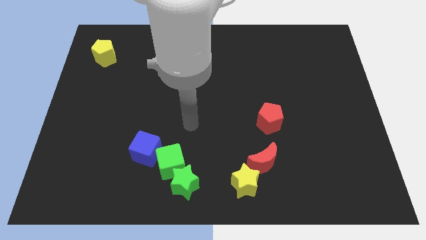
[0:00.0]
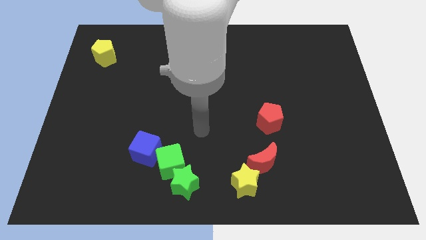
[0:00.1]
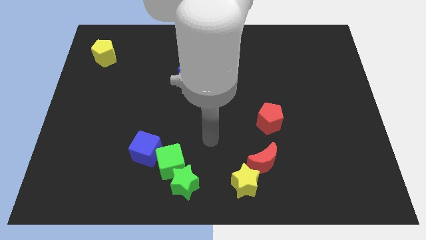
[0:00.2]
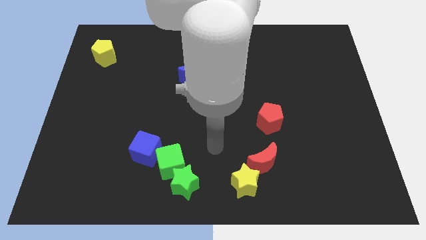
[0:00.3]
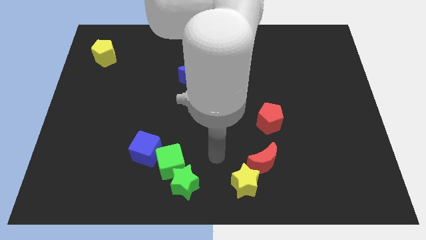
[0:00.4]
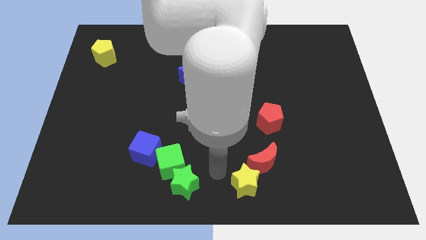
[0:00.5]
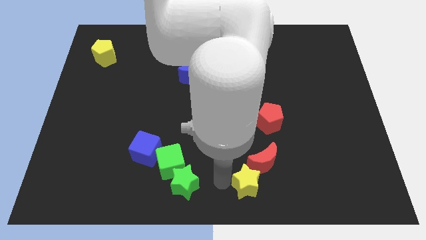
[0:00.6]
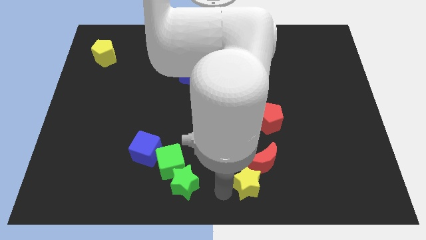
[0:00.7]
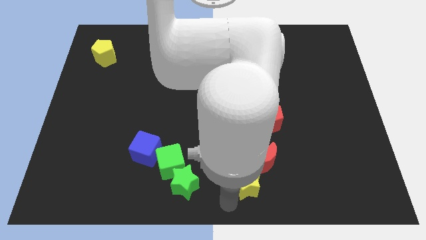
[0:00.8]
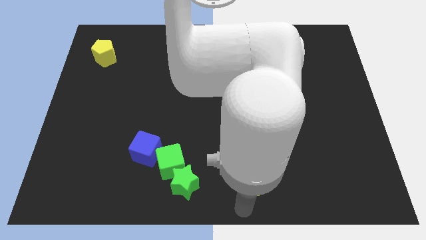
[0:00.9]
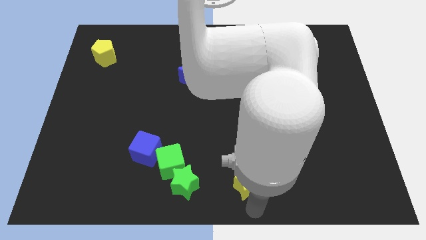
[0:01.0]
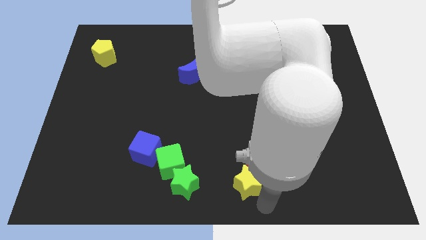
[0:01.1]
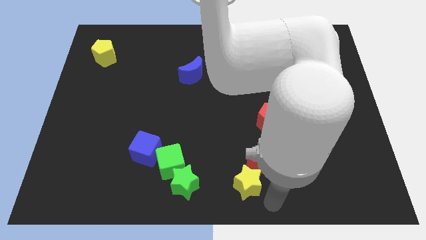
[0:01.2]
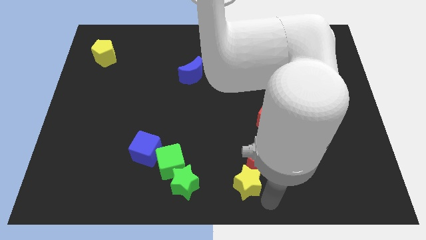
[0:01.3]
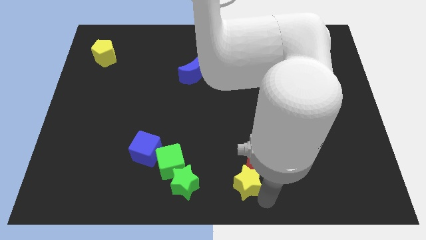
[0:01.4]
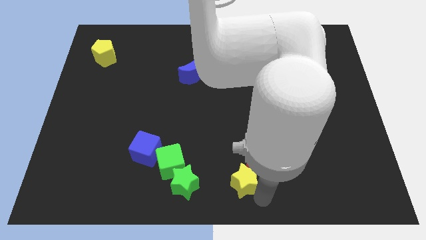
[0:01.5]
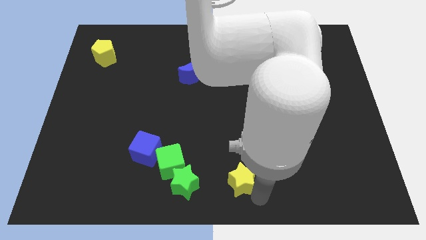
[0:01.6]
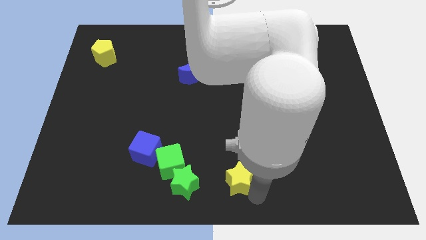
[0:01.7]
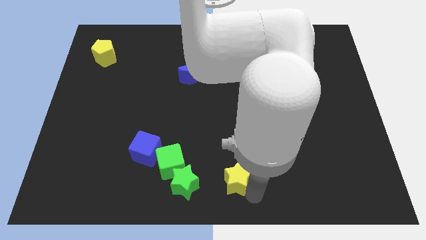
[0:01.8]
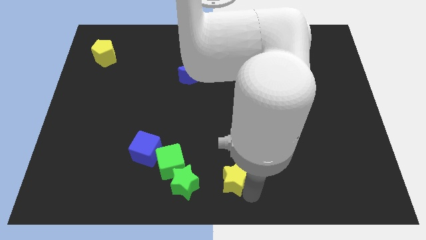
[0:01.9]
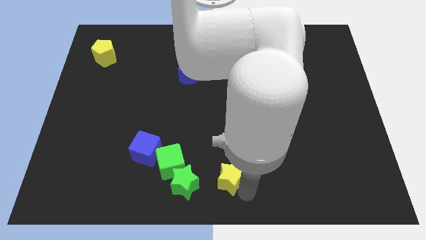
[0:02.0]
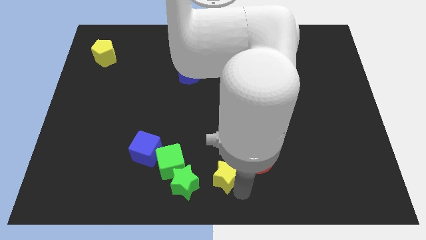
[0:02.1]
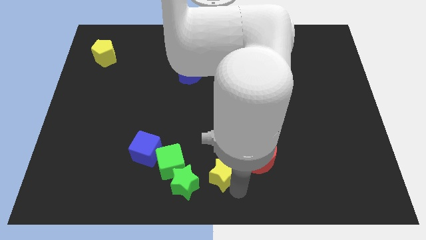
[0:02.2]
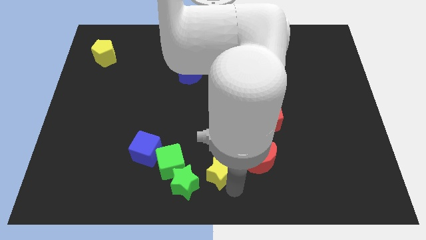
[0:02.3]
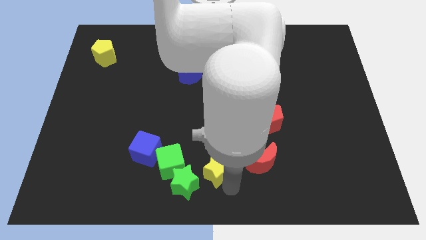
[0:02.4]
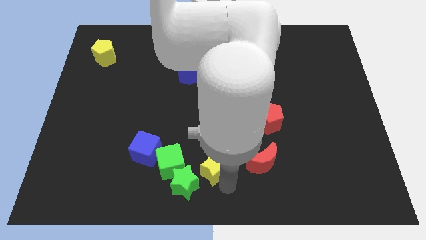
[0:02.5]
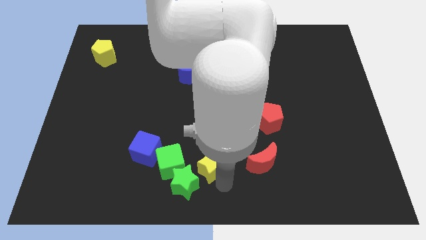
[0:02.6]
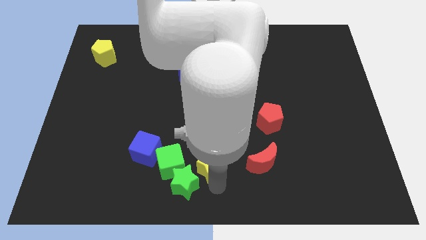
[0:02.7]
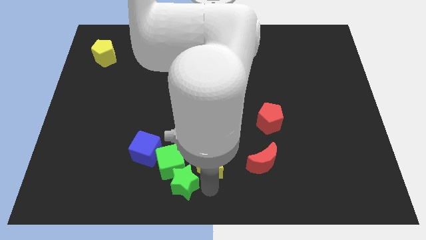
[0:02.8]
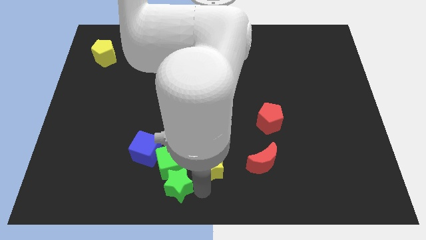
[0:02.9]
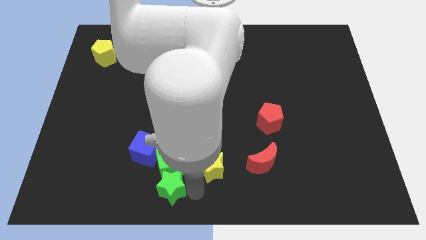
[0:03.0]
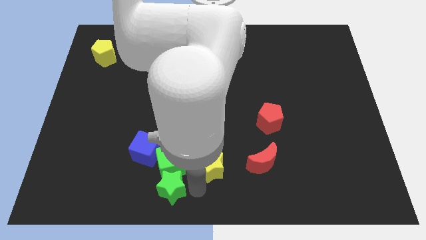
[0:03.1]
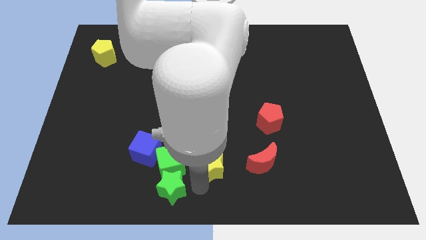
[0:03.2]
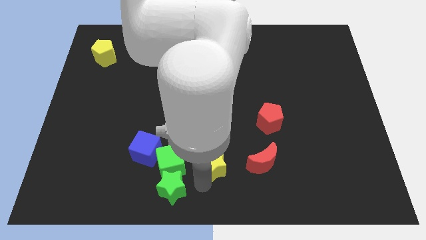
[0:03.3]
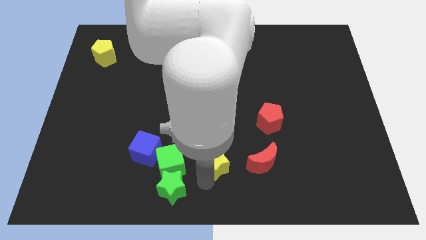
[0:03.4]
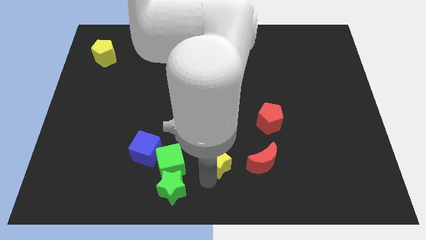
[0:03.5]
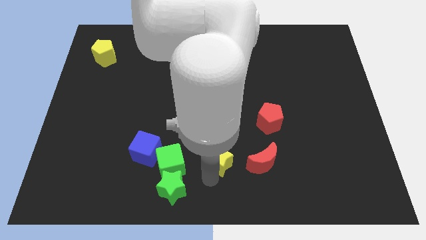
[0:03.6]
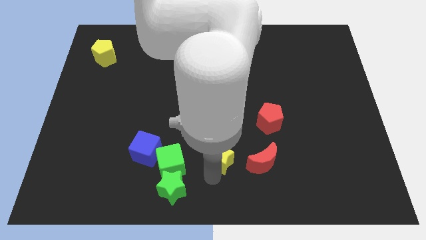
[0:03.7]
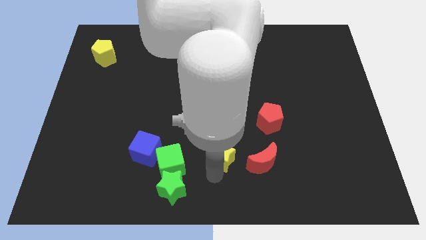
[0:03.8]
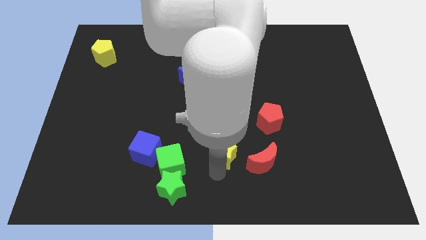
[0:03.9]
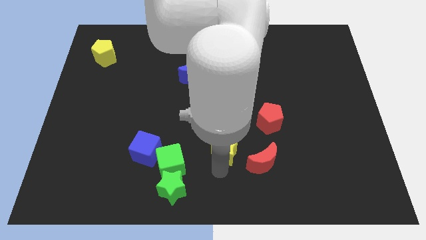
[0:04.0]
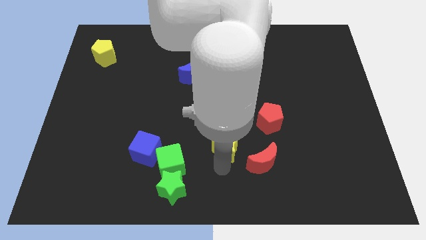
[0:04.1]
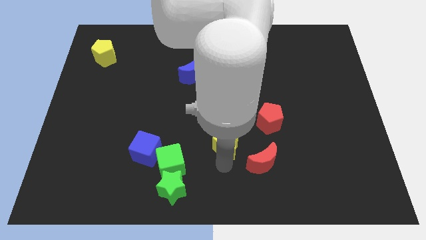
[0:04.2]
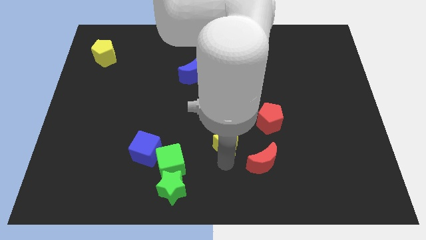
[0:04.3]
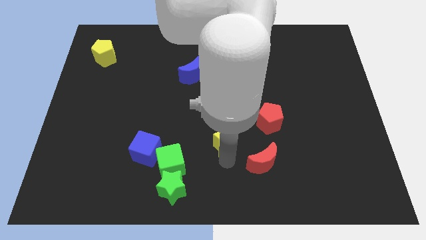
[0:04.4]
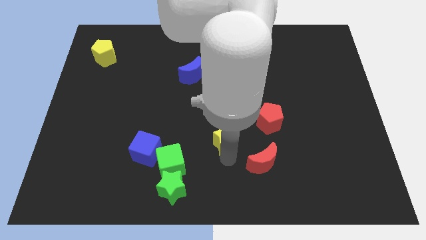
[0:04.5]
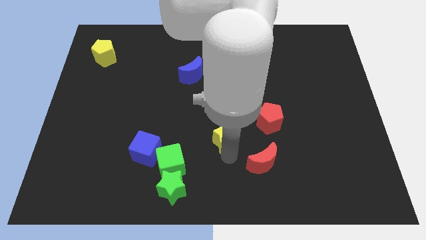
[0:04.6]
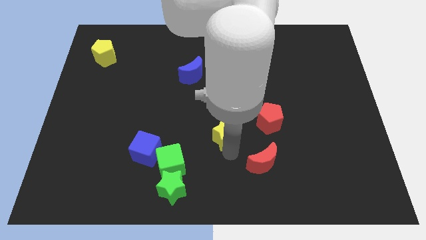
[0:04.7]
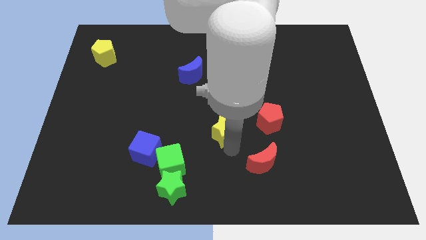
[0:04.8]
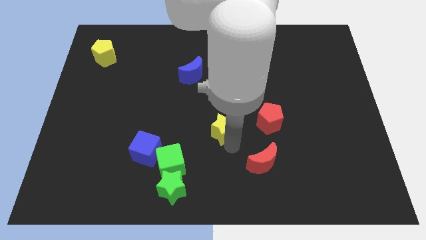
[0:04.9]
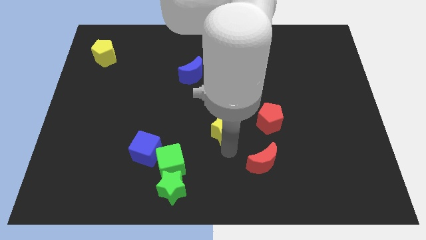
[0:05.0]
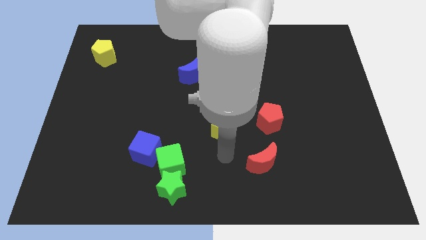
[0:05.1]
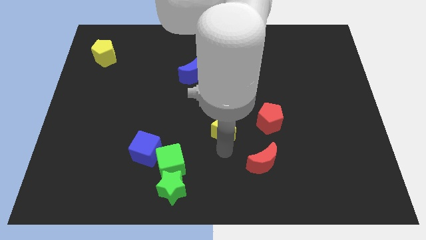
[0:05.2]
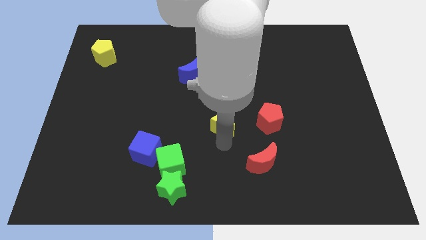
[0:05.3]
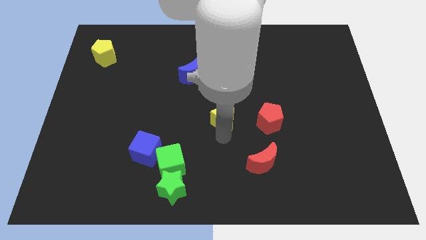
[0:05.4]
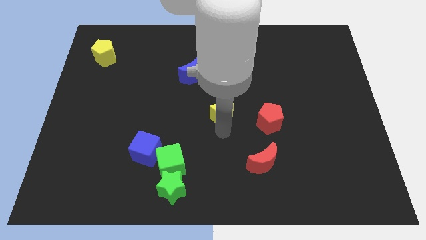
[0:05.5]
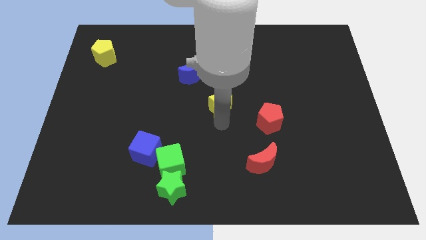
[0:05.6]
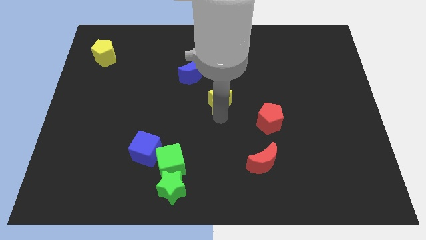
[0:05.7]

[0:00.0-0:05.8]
slide the yellow star upwards

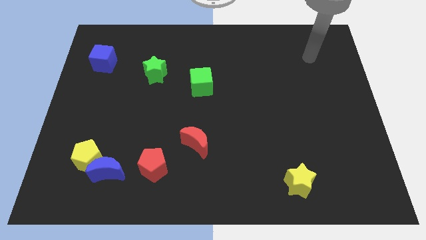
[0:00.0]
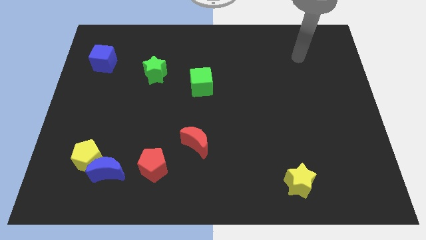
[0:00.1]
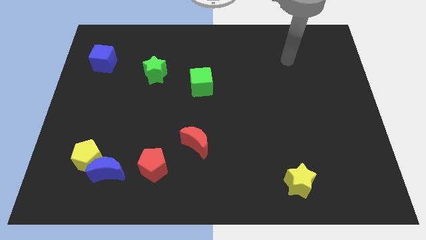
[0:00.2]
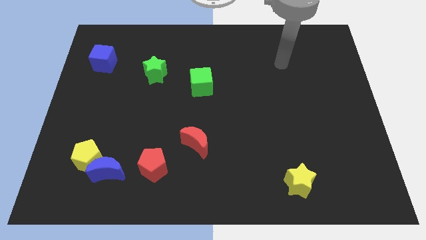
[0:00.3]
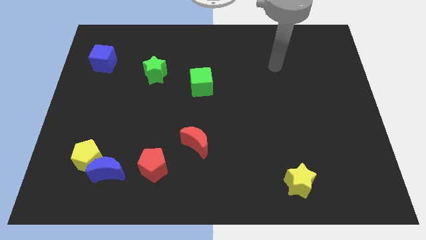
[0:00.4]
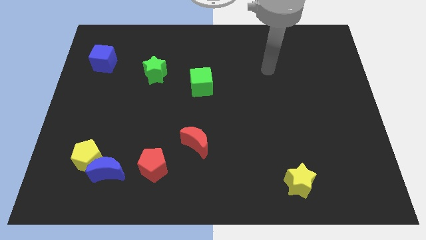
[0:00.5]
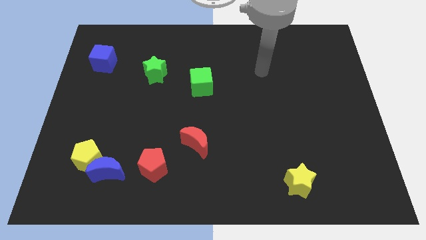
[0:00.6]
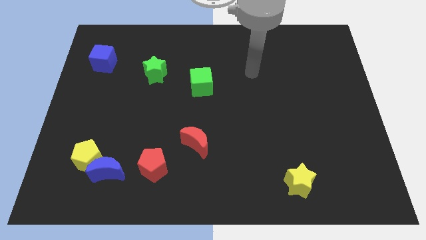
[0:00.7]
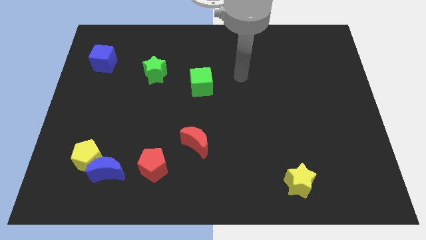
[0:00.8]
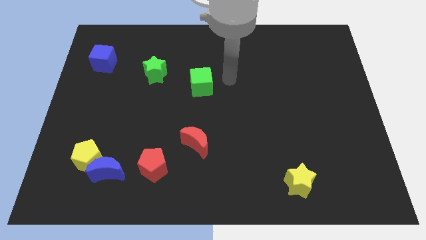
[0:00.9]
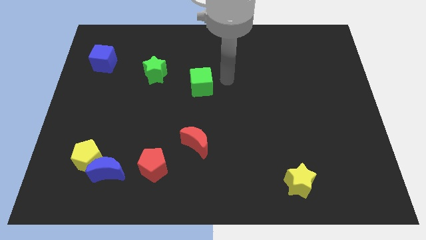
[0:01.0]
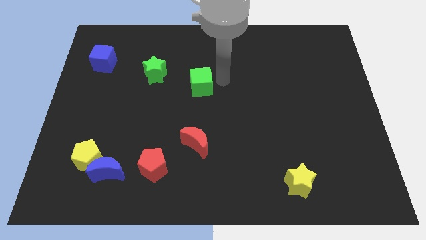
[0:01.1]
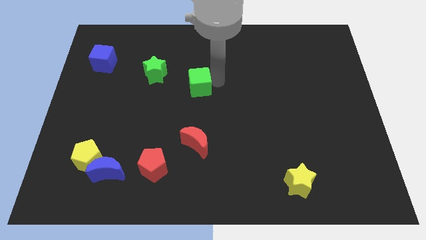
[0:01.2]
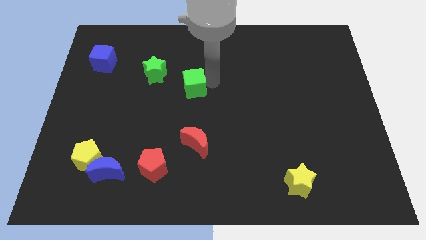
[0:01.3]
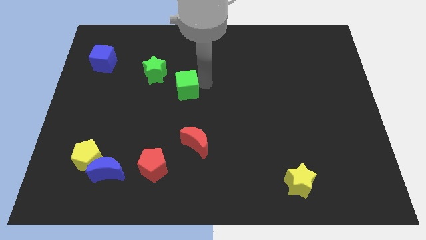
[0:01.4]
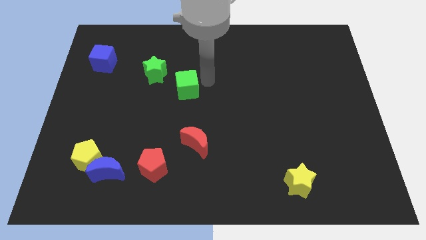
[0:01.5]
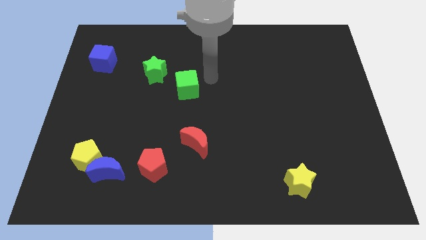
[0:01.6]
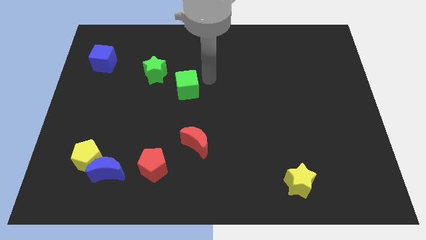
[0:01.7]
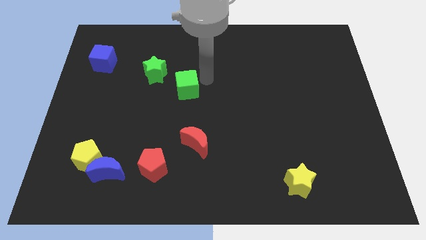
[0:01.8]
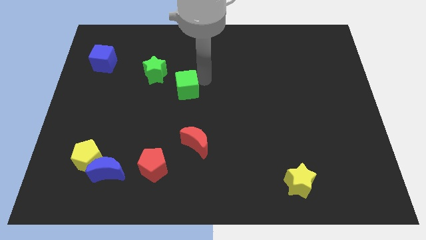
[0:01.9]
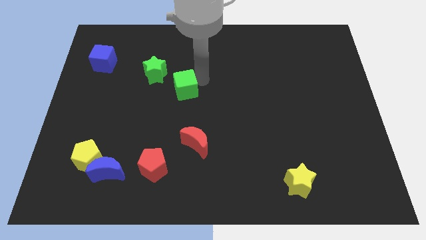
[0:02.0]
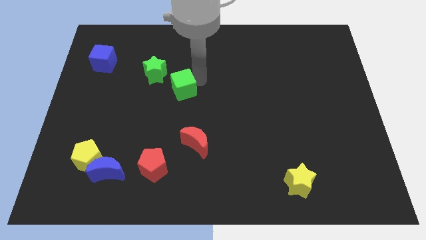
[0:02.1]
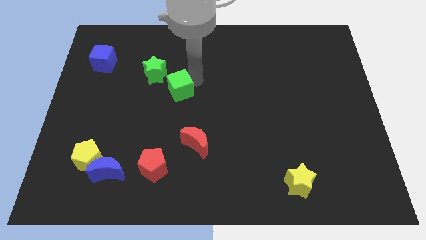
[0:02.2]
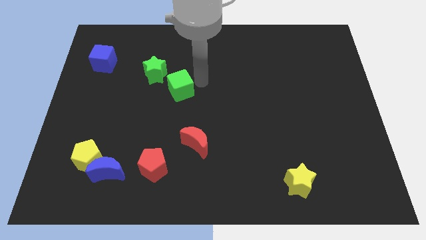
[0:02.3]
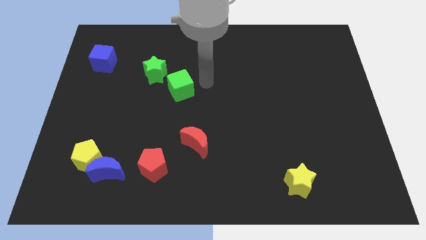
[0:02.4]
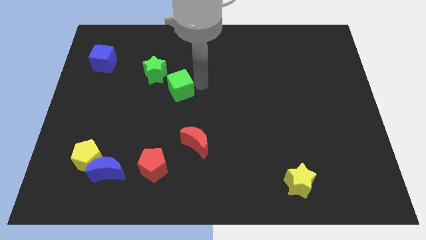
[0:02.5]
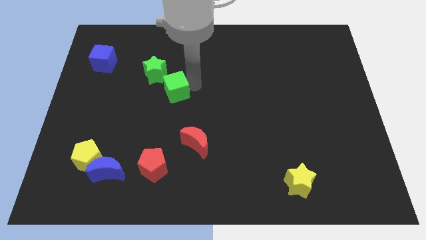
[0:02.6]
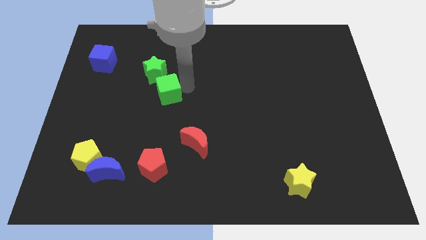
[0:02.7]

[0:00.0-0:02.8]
push the green cube left a bit

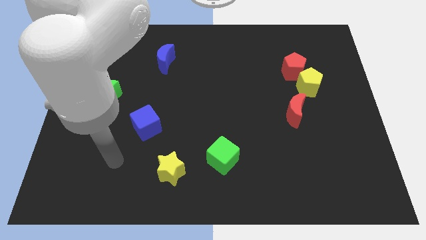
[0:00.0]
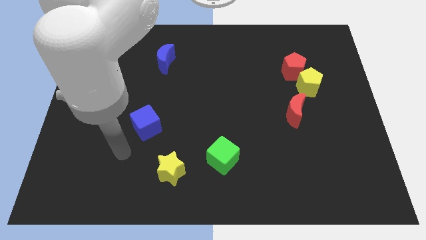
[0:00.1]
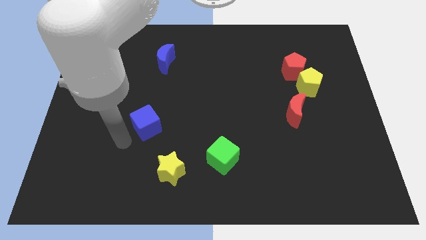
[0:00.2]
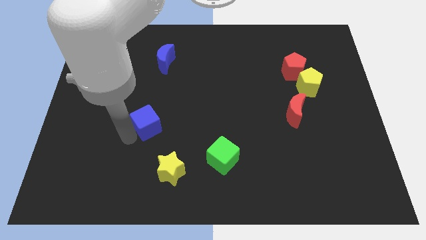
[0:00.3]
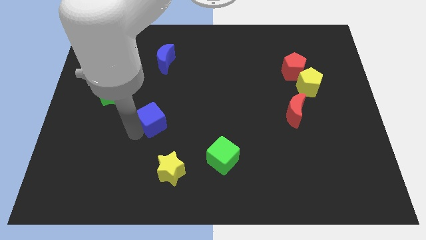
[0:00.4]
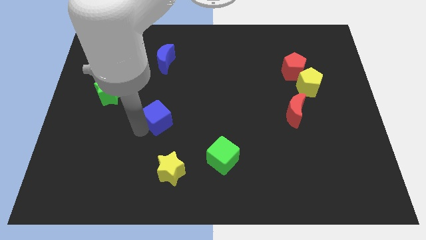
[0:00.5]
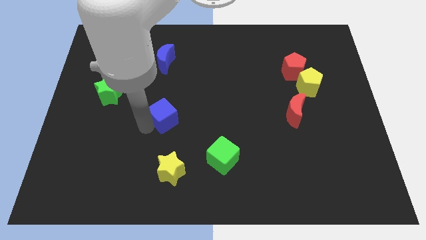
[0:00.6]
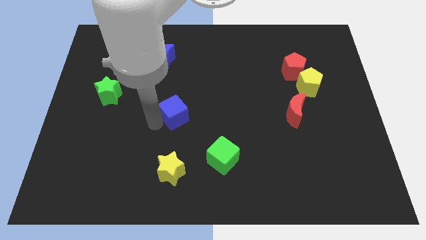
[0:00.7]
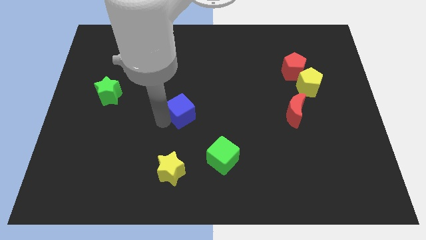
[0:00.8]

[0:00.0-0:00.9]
slide the blue cube diagonally upwards and to the right a bit
